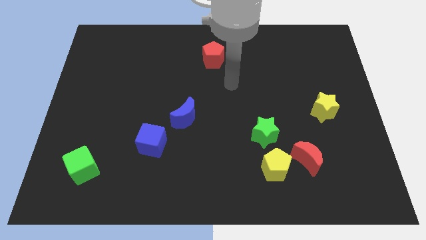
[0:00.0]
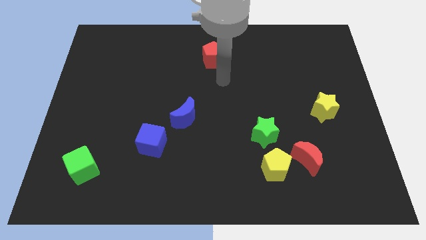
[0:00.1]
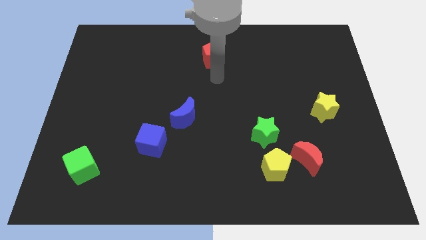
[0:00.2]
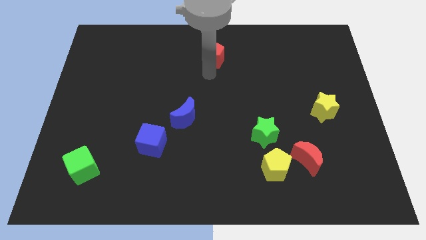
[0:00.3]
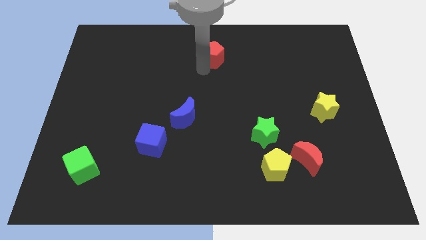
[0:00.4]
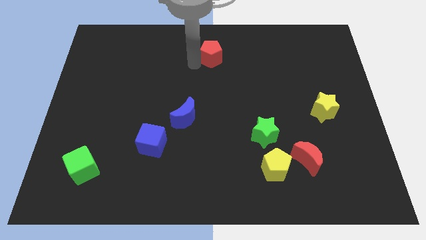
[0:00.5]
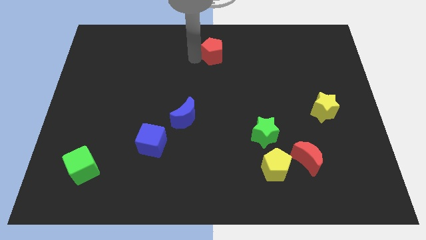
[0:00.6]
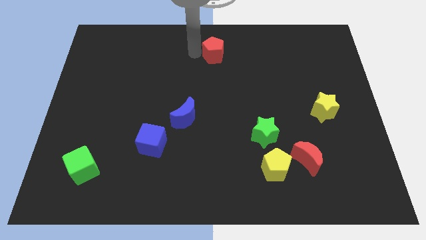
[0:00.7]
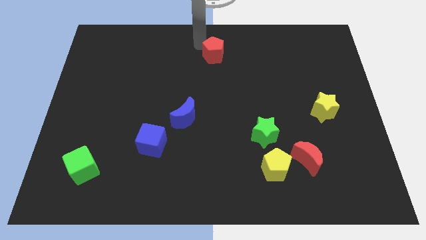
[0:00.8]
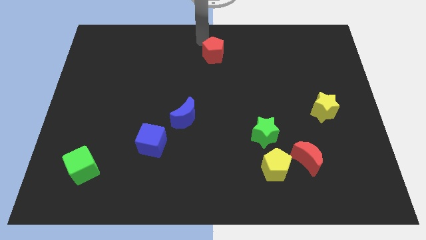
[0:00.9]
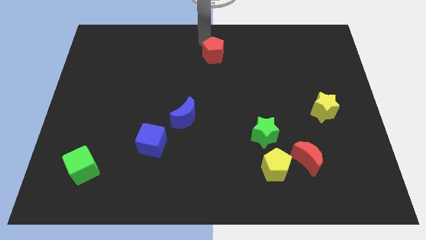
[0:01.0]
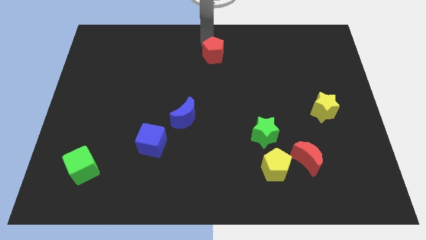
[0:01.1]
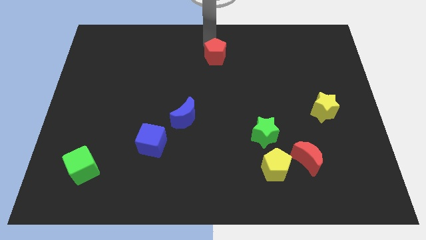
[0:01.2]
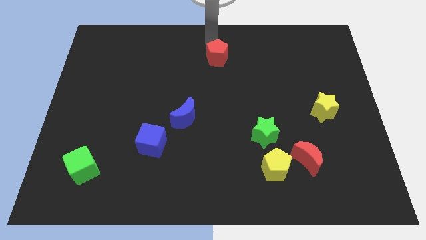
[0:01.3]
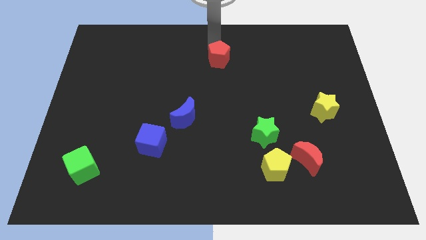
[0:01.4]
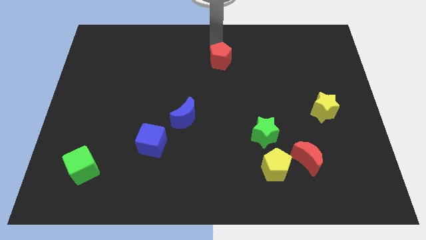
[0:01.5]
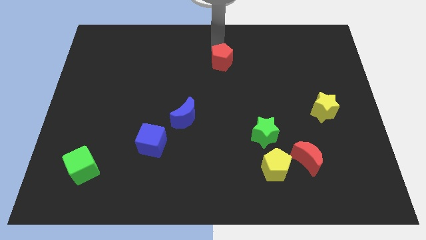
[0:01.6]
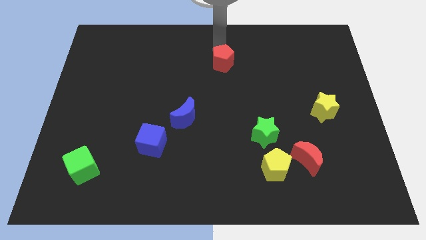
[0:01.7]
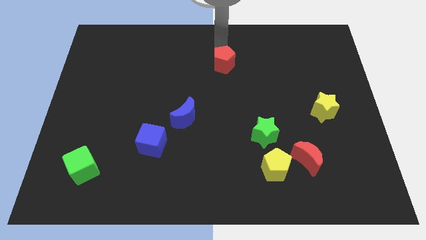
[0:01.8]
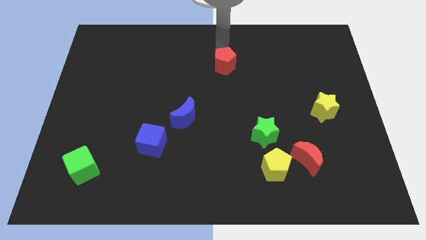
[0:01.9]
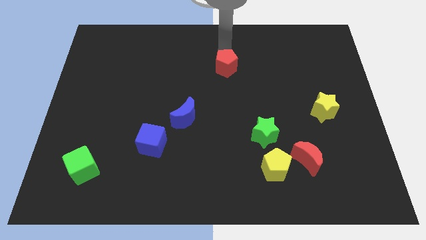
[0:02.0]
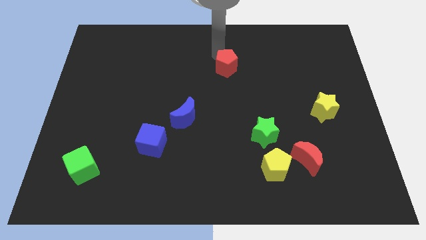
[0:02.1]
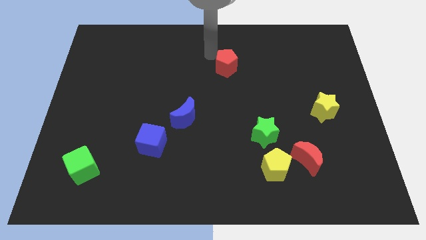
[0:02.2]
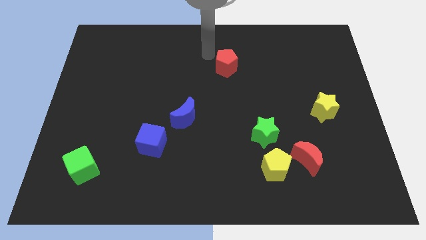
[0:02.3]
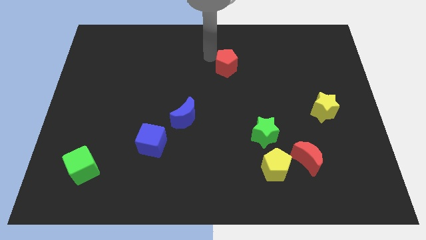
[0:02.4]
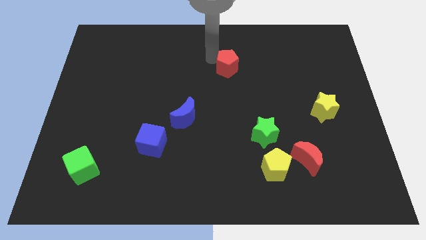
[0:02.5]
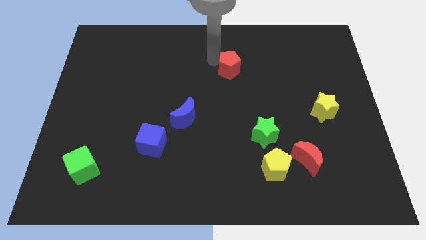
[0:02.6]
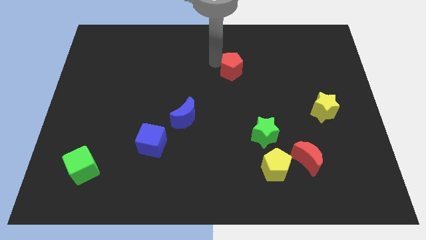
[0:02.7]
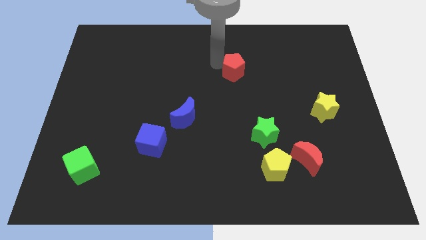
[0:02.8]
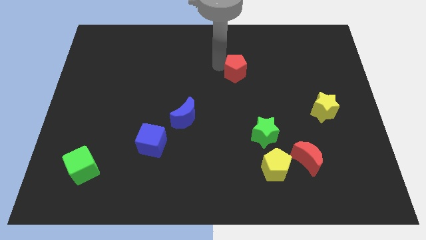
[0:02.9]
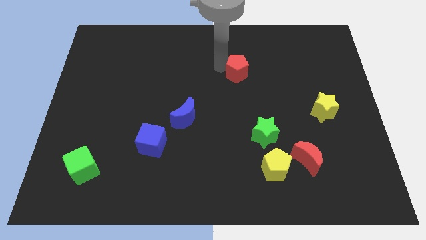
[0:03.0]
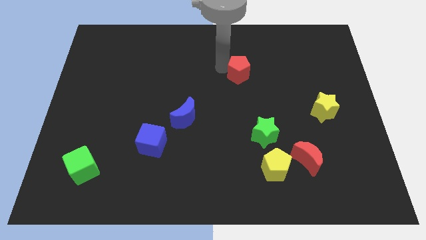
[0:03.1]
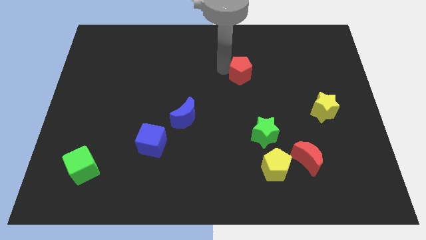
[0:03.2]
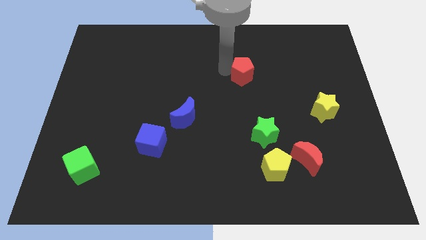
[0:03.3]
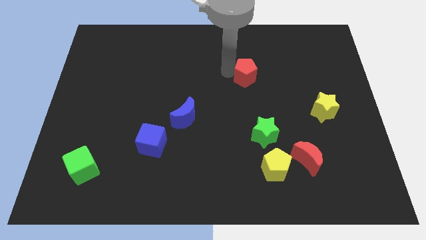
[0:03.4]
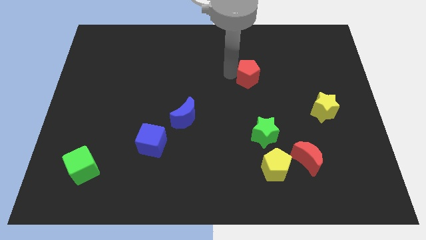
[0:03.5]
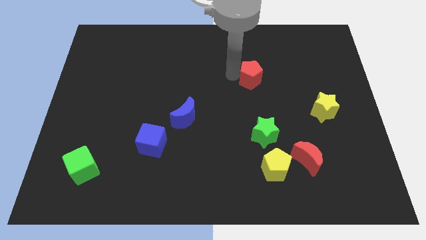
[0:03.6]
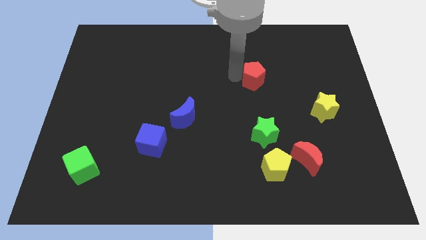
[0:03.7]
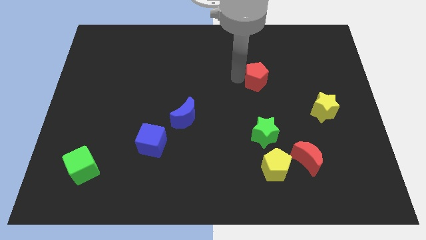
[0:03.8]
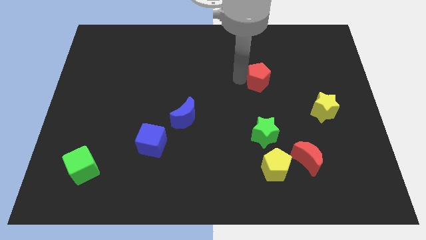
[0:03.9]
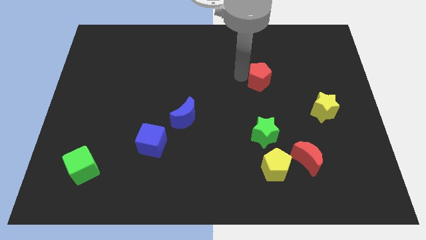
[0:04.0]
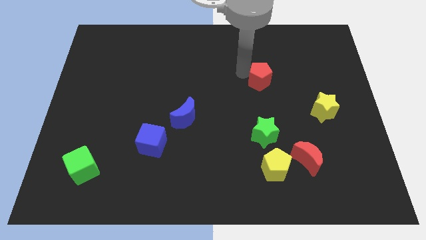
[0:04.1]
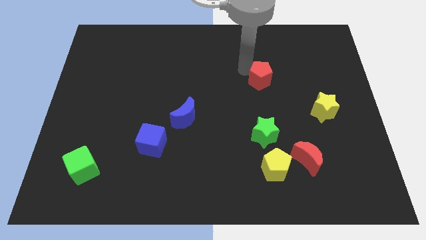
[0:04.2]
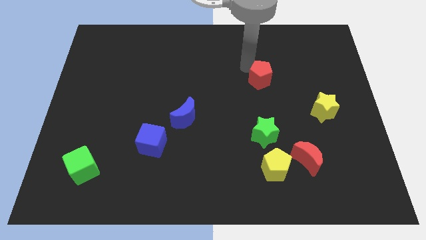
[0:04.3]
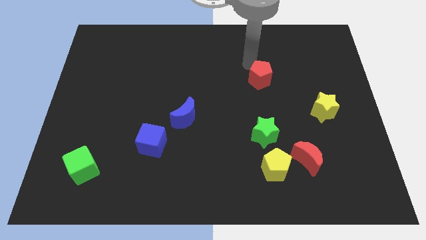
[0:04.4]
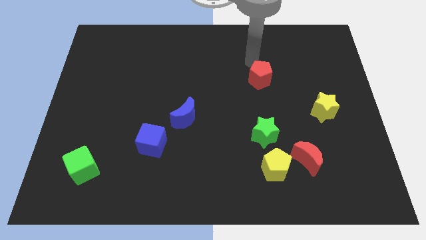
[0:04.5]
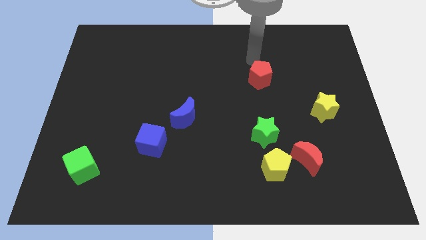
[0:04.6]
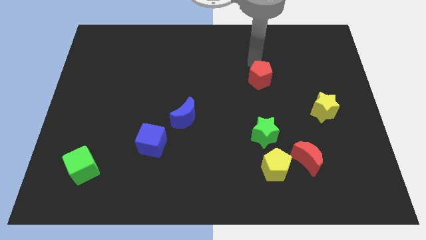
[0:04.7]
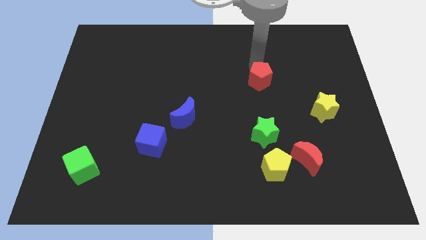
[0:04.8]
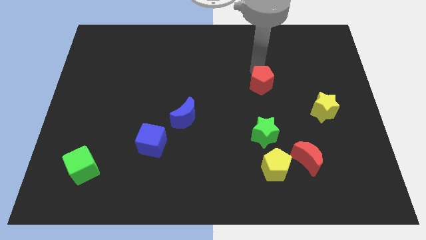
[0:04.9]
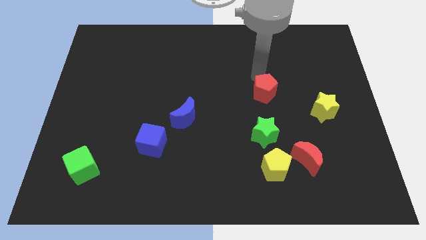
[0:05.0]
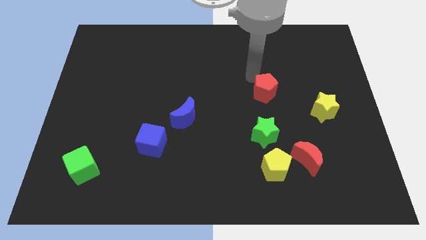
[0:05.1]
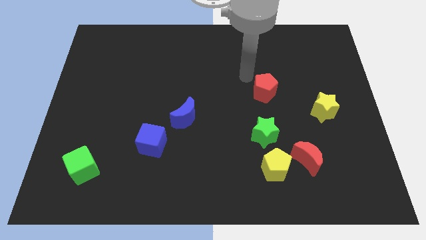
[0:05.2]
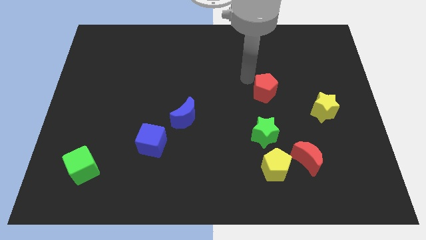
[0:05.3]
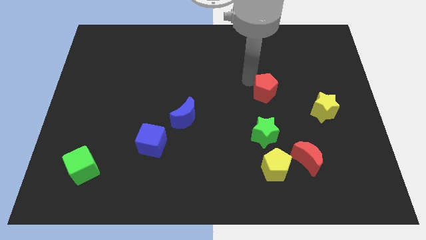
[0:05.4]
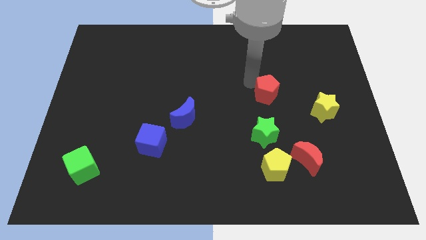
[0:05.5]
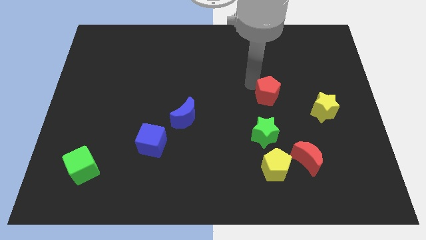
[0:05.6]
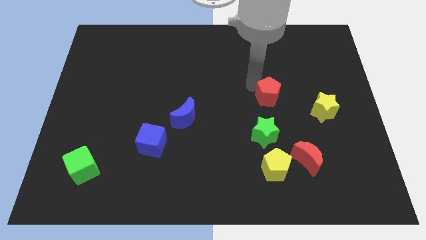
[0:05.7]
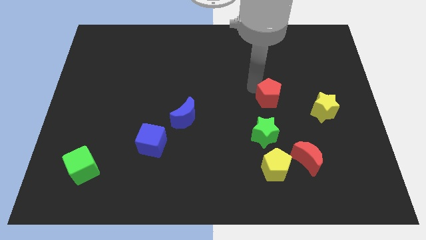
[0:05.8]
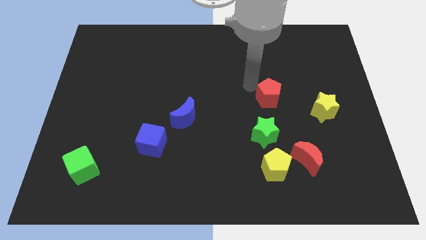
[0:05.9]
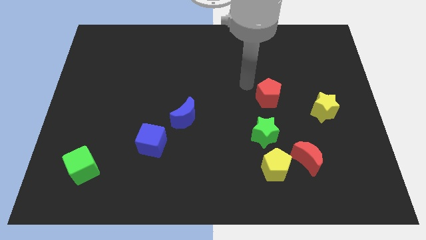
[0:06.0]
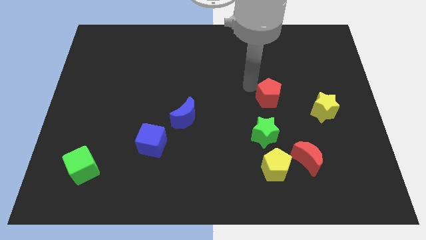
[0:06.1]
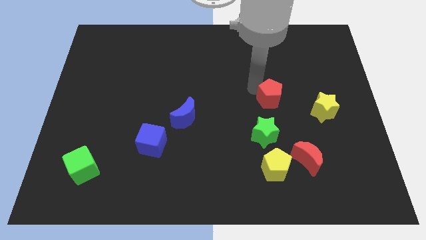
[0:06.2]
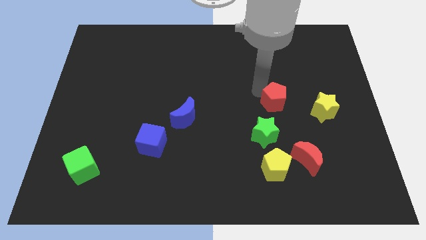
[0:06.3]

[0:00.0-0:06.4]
move the red pentagon downwards and then to the right

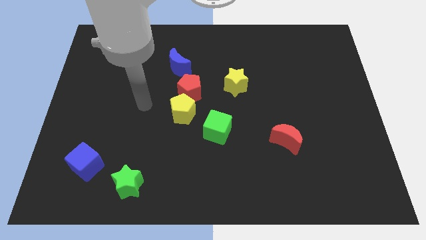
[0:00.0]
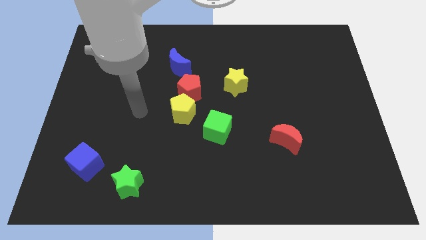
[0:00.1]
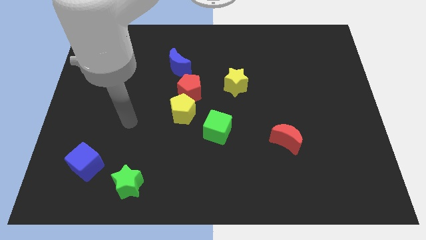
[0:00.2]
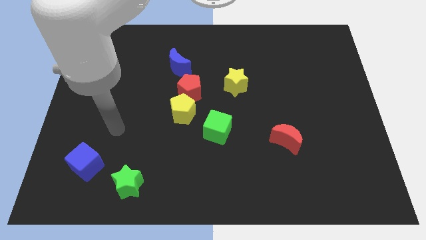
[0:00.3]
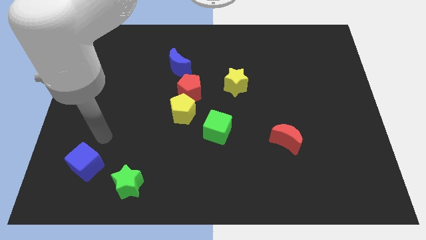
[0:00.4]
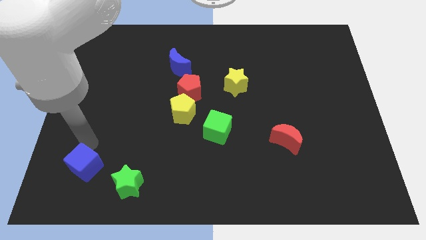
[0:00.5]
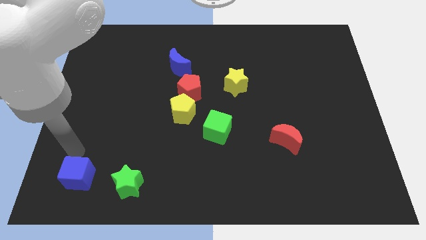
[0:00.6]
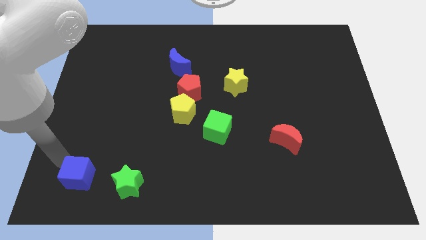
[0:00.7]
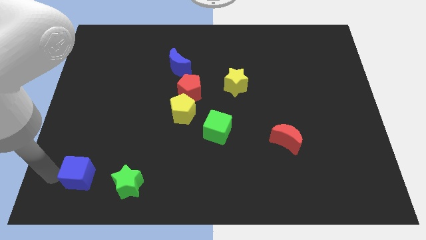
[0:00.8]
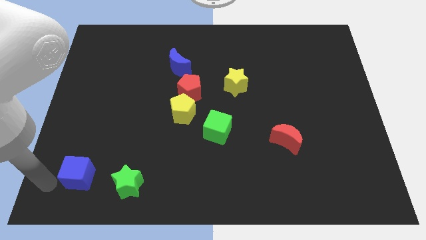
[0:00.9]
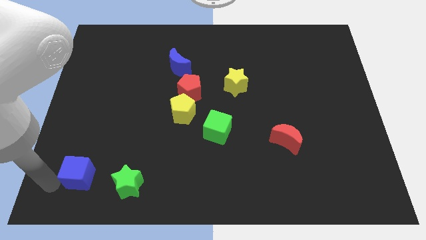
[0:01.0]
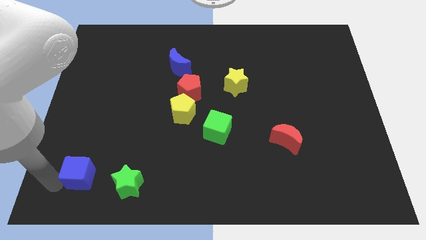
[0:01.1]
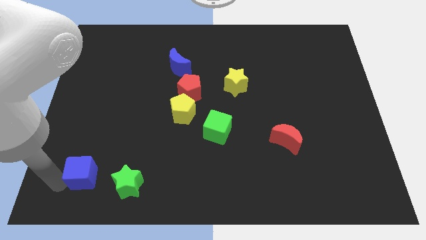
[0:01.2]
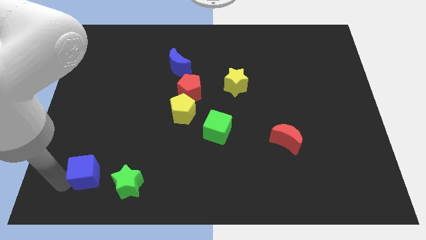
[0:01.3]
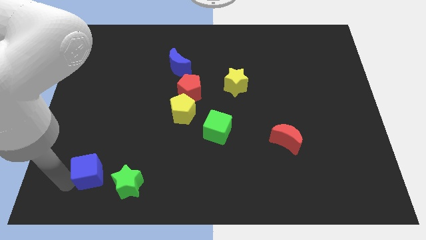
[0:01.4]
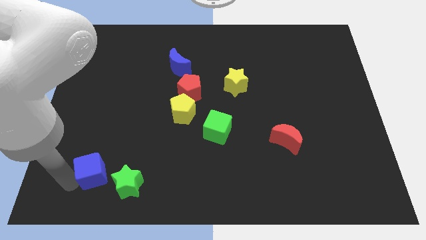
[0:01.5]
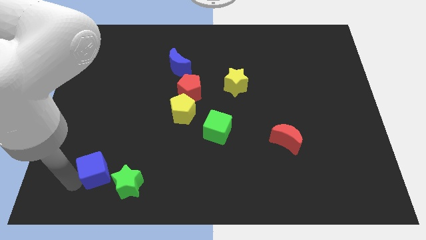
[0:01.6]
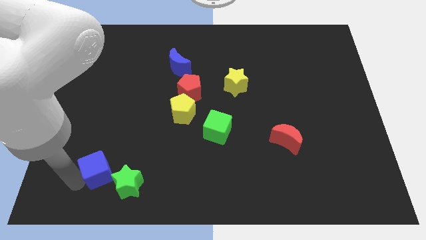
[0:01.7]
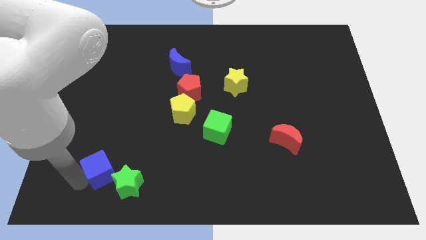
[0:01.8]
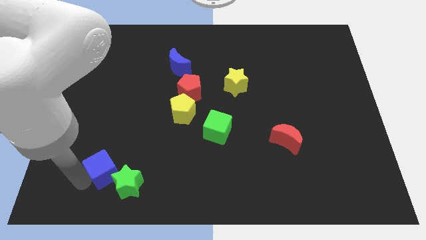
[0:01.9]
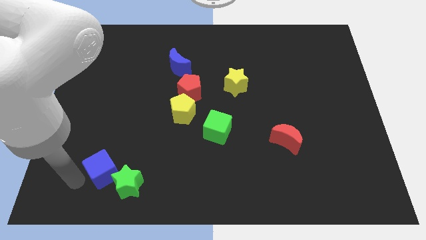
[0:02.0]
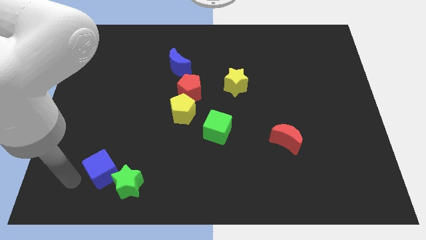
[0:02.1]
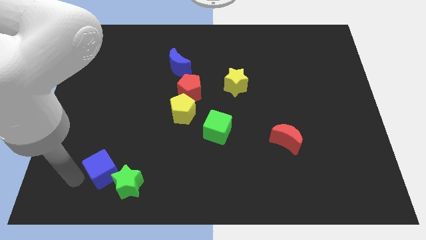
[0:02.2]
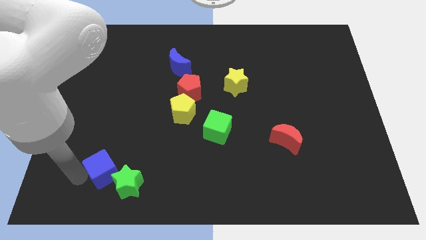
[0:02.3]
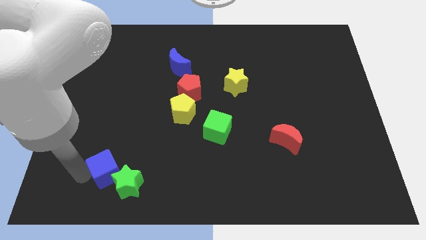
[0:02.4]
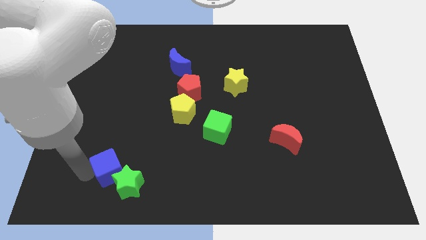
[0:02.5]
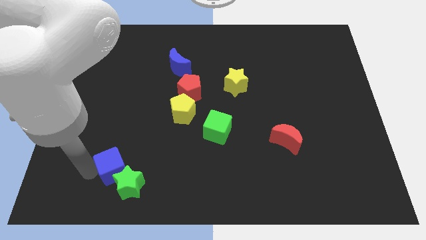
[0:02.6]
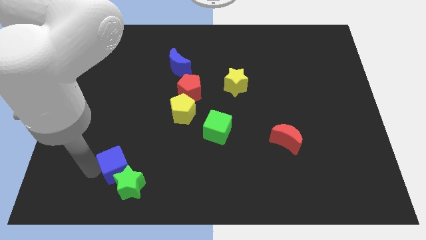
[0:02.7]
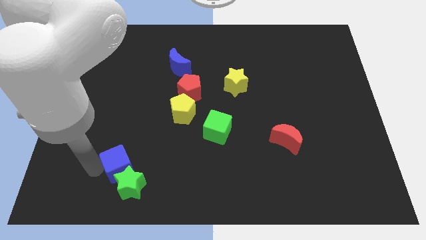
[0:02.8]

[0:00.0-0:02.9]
slide the blue cube slightly to the right
